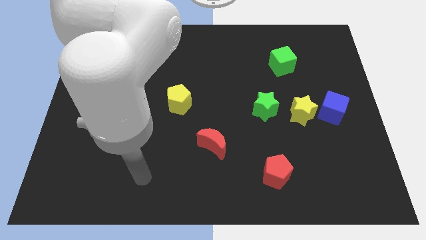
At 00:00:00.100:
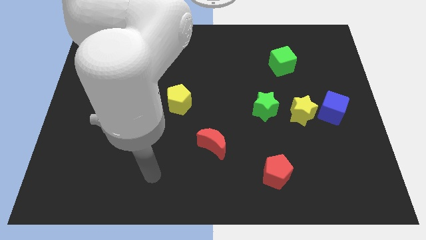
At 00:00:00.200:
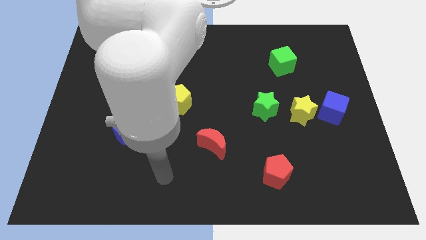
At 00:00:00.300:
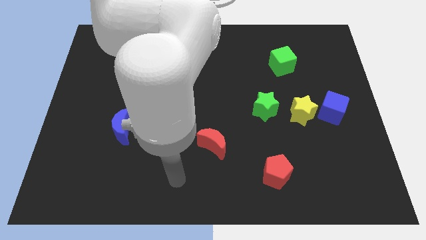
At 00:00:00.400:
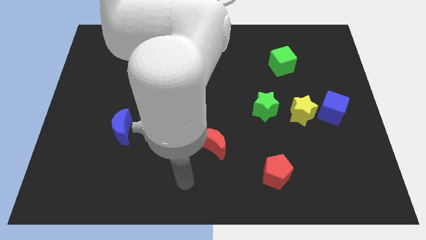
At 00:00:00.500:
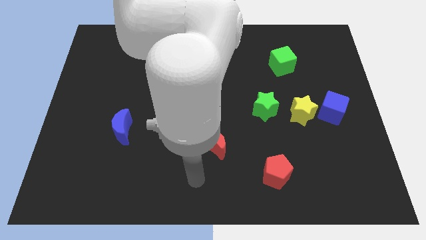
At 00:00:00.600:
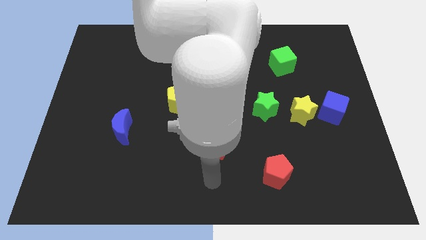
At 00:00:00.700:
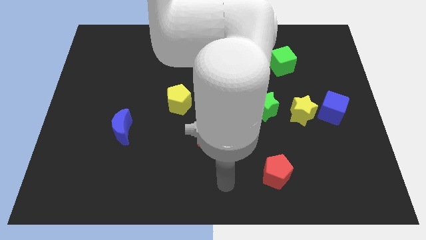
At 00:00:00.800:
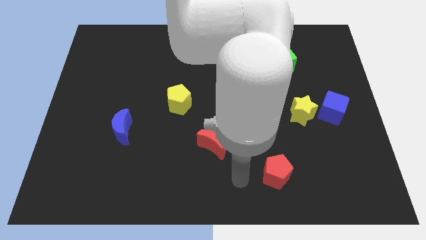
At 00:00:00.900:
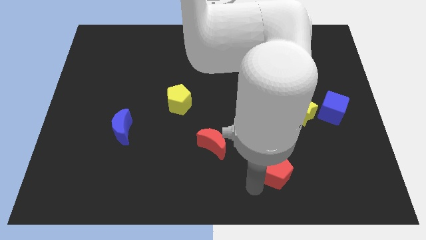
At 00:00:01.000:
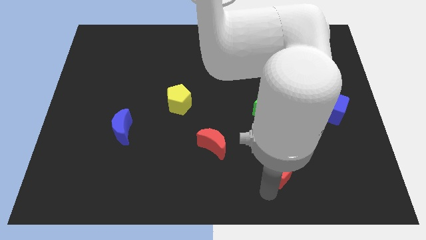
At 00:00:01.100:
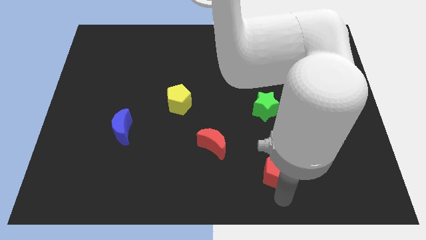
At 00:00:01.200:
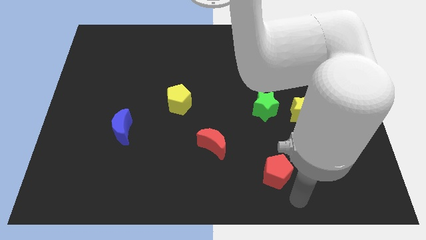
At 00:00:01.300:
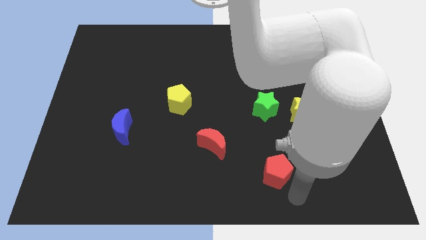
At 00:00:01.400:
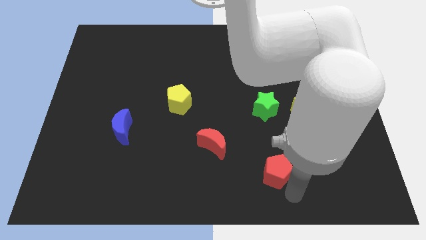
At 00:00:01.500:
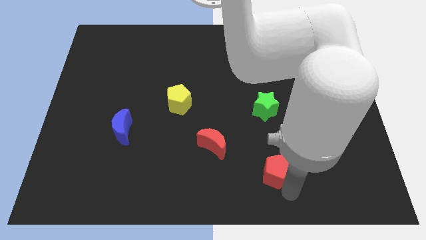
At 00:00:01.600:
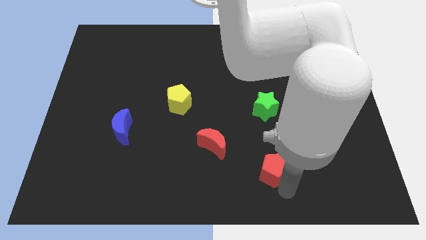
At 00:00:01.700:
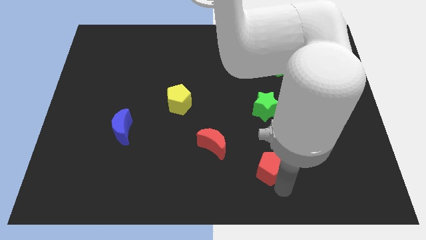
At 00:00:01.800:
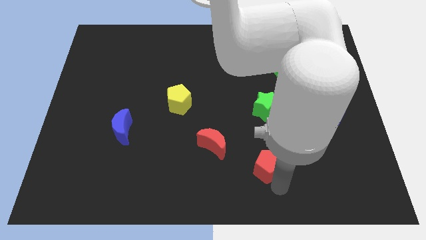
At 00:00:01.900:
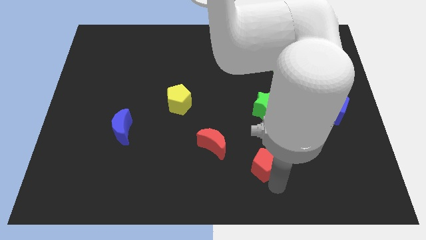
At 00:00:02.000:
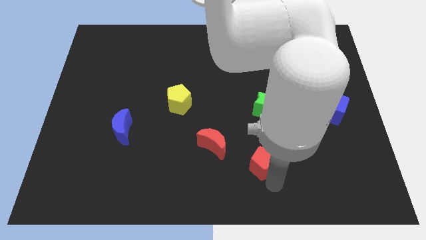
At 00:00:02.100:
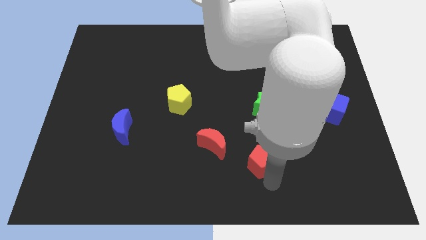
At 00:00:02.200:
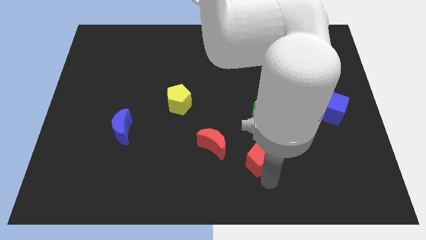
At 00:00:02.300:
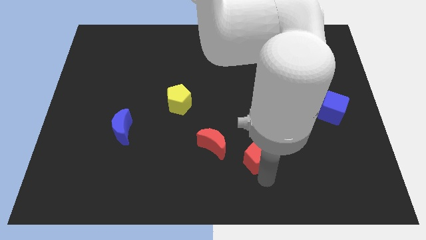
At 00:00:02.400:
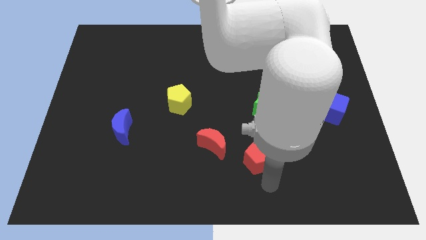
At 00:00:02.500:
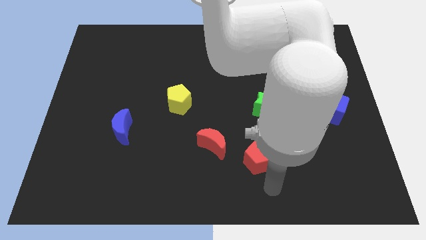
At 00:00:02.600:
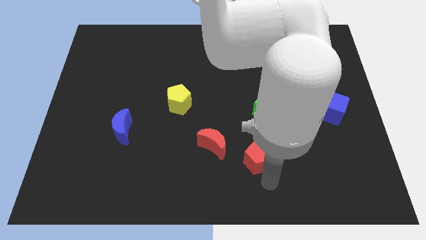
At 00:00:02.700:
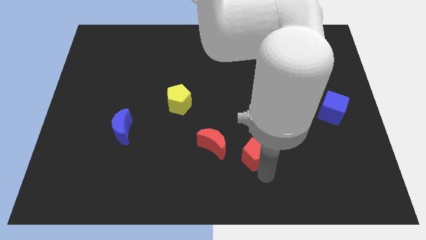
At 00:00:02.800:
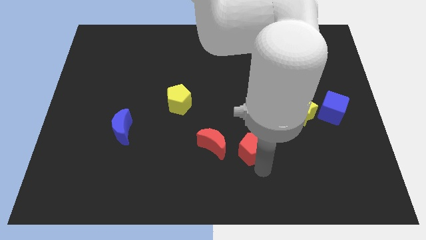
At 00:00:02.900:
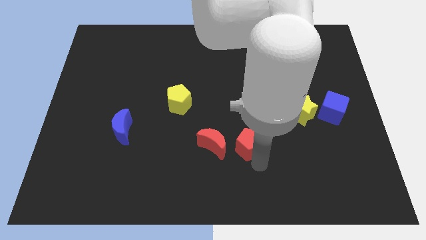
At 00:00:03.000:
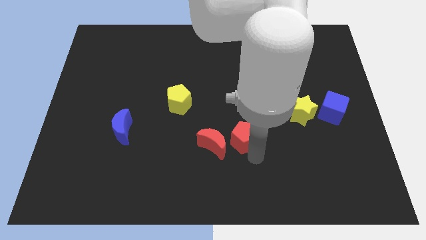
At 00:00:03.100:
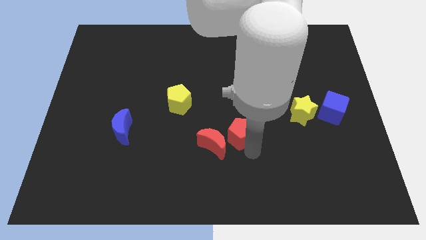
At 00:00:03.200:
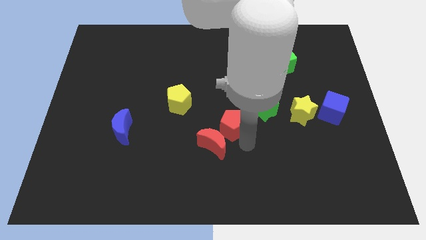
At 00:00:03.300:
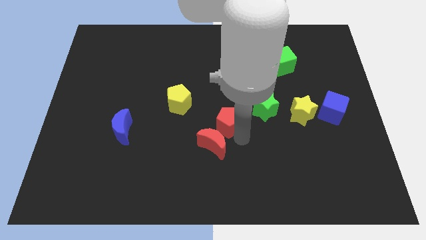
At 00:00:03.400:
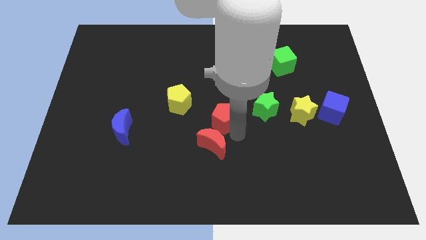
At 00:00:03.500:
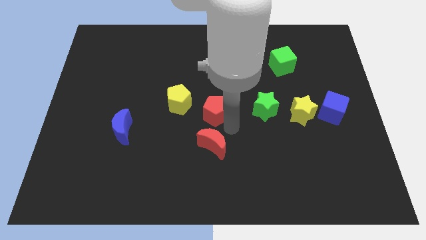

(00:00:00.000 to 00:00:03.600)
push the red pentagon upwards and then left

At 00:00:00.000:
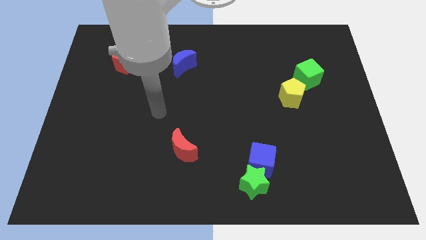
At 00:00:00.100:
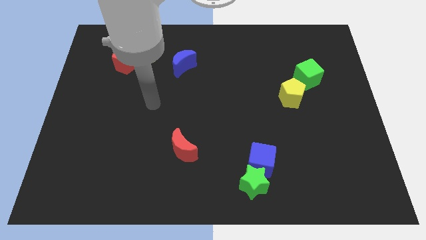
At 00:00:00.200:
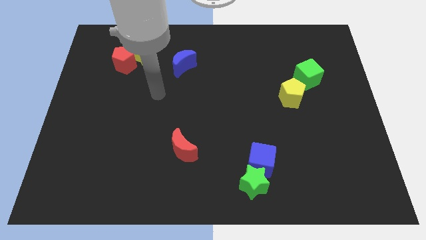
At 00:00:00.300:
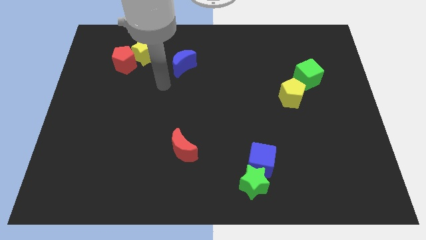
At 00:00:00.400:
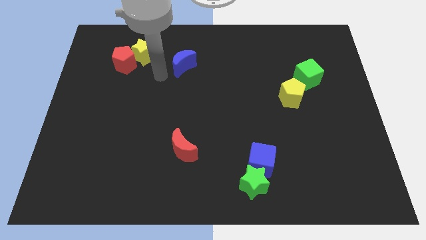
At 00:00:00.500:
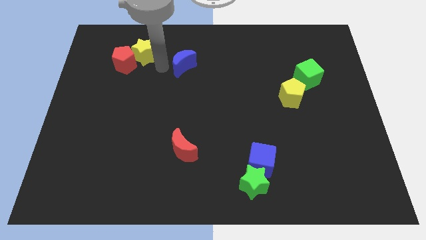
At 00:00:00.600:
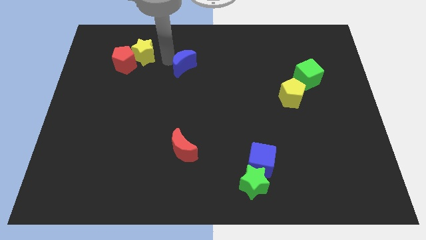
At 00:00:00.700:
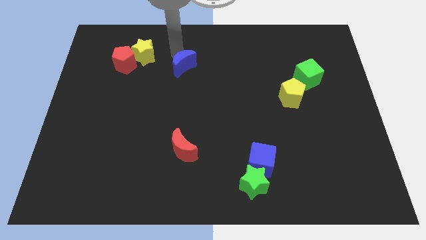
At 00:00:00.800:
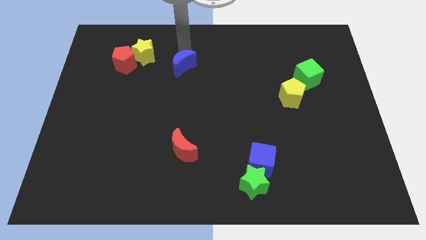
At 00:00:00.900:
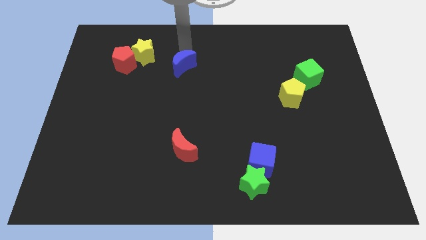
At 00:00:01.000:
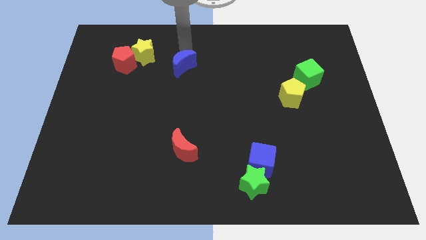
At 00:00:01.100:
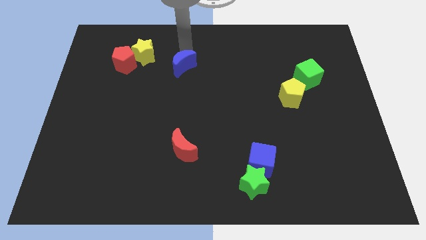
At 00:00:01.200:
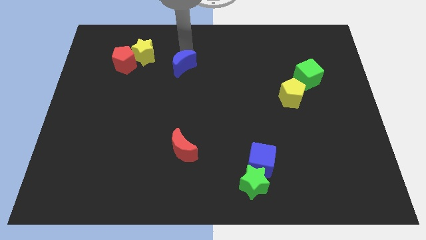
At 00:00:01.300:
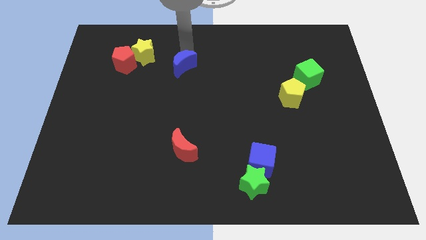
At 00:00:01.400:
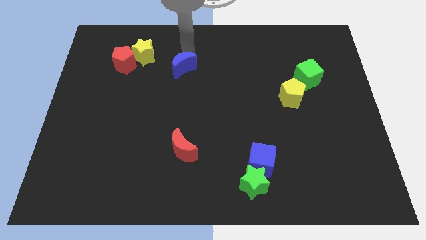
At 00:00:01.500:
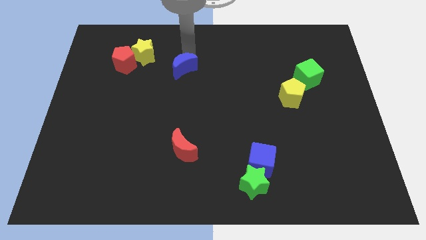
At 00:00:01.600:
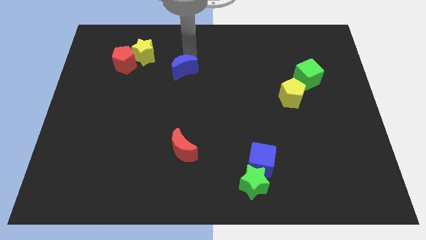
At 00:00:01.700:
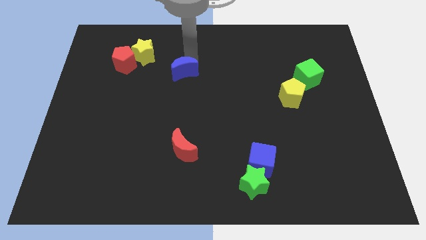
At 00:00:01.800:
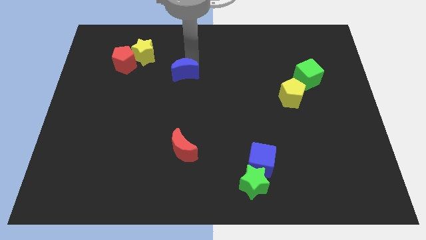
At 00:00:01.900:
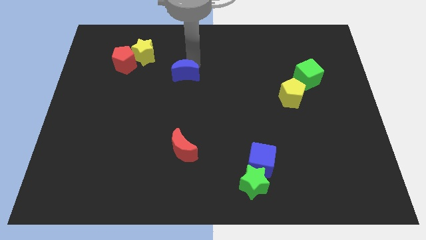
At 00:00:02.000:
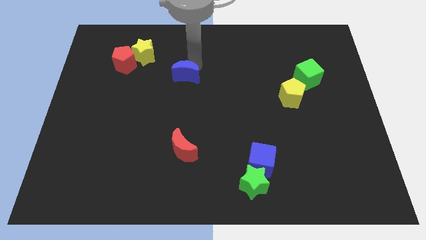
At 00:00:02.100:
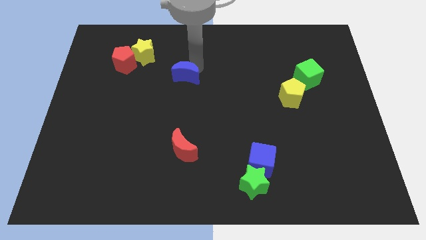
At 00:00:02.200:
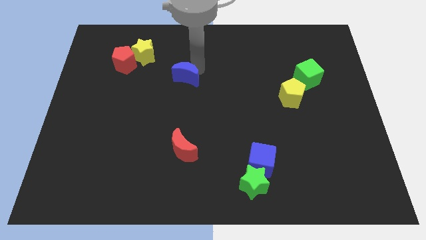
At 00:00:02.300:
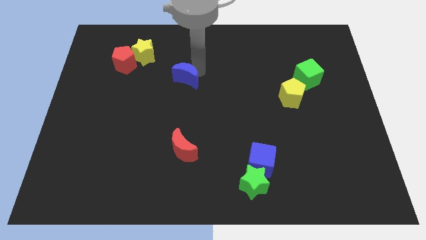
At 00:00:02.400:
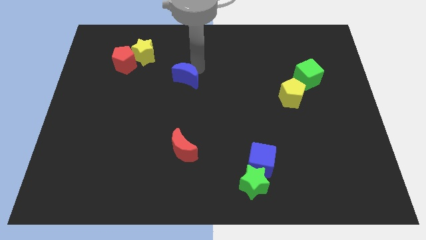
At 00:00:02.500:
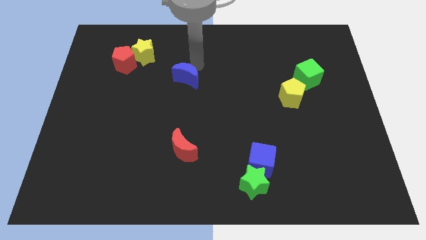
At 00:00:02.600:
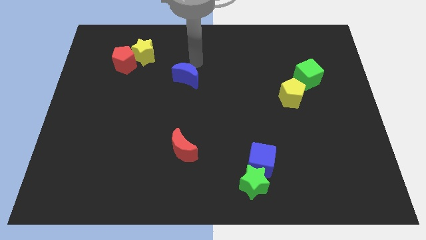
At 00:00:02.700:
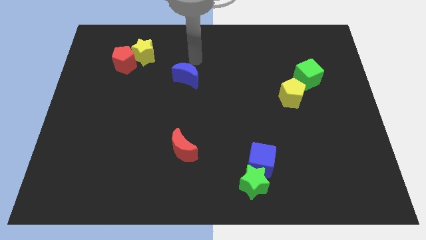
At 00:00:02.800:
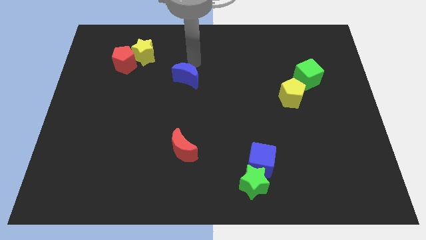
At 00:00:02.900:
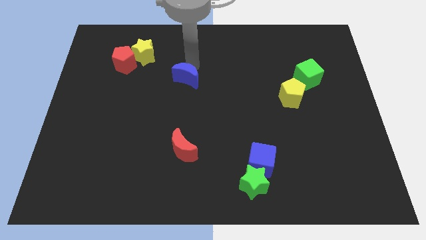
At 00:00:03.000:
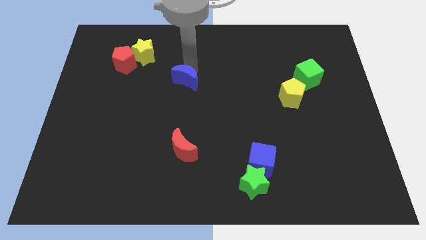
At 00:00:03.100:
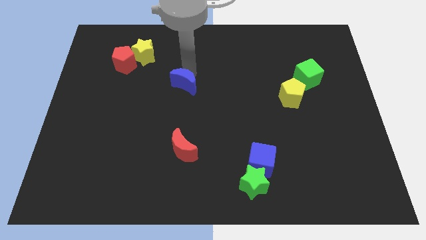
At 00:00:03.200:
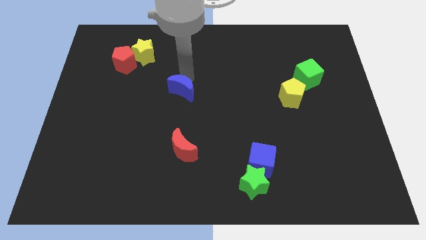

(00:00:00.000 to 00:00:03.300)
slightly move the blue moon downwards

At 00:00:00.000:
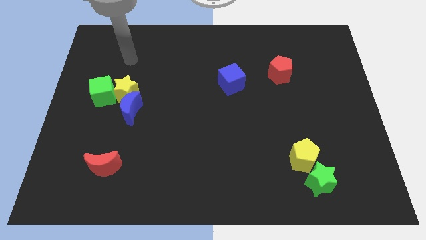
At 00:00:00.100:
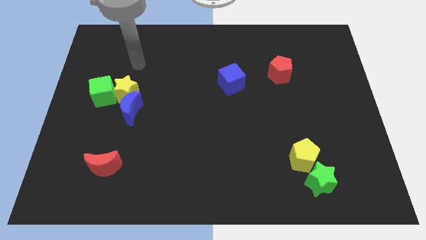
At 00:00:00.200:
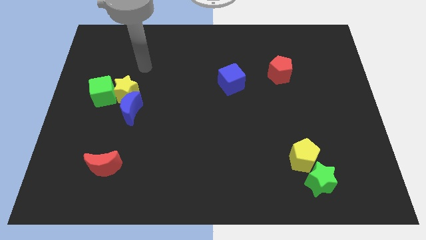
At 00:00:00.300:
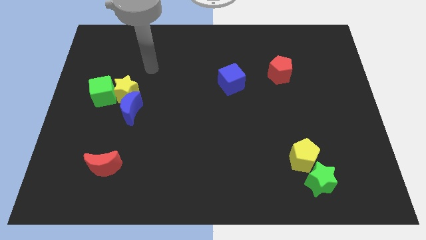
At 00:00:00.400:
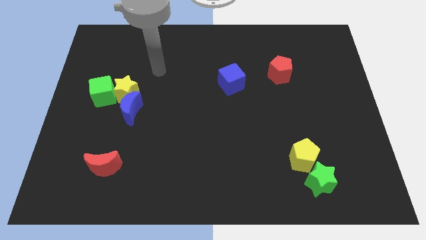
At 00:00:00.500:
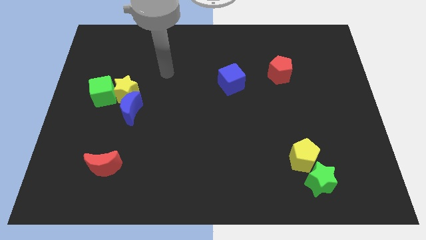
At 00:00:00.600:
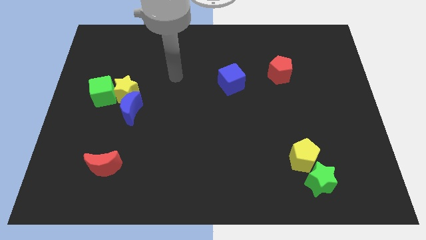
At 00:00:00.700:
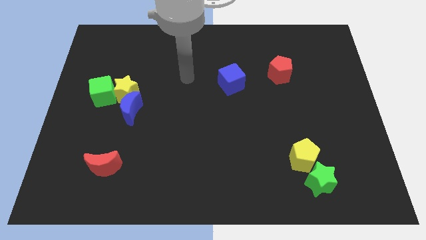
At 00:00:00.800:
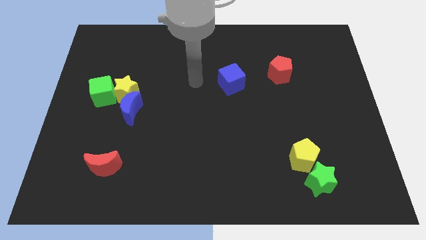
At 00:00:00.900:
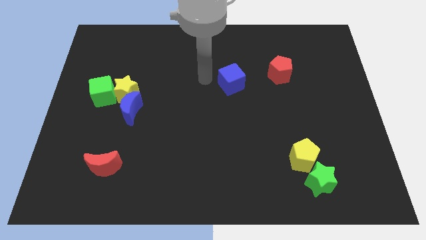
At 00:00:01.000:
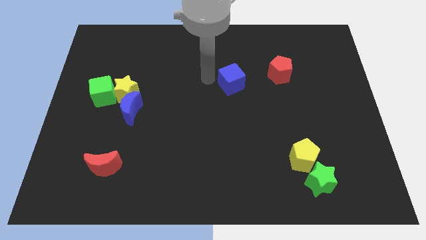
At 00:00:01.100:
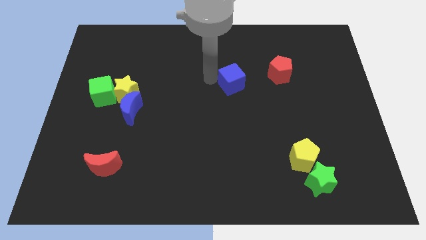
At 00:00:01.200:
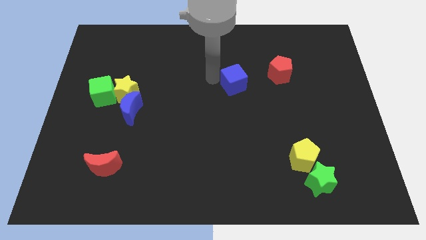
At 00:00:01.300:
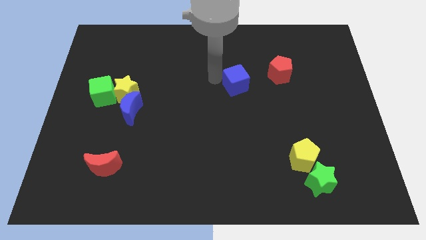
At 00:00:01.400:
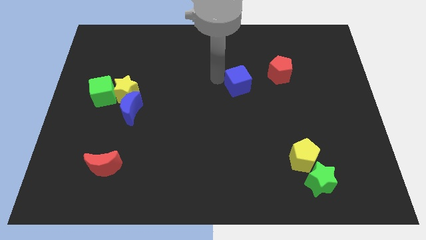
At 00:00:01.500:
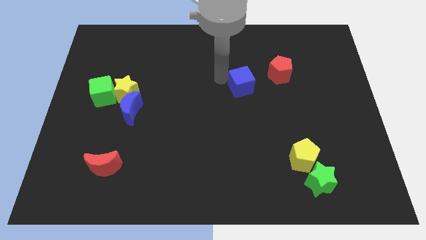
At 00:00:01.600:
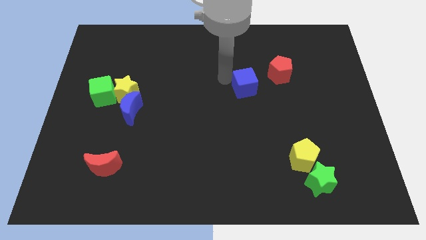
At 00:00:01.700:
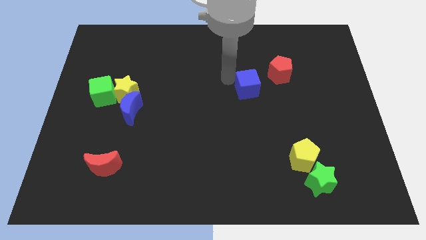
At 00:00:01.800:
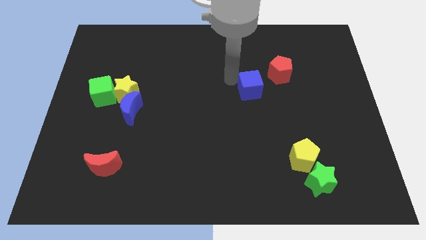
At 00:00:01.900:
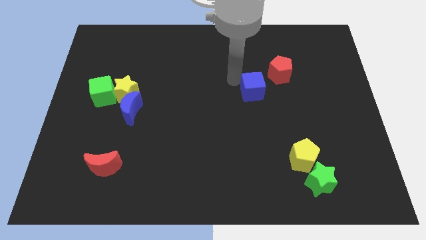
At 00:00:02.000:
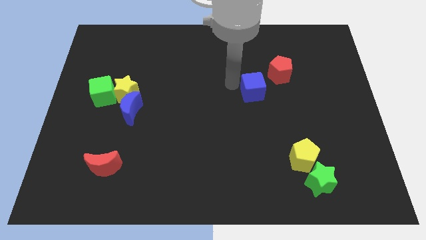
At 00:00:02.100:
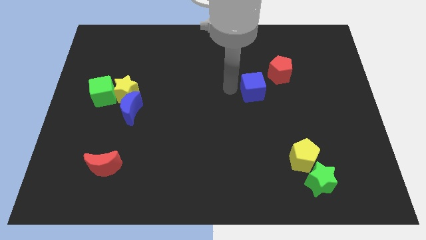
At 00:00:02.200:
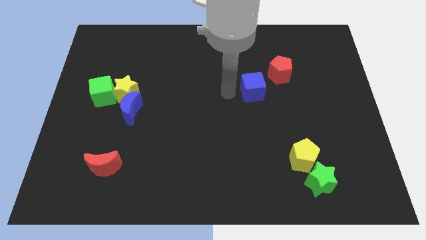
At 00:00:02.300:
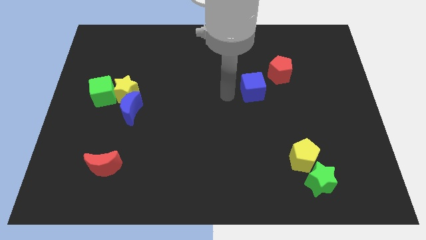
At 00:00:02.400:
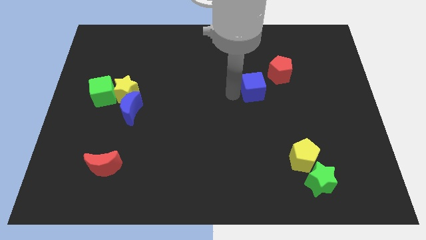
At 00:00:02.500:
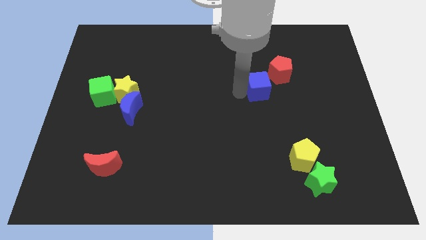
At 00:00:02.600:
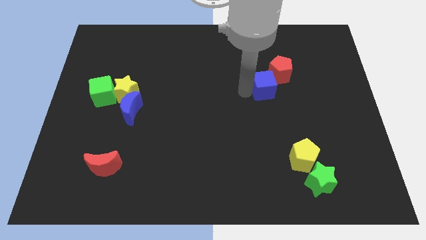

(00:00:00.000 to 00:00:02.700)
slightly move the blue cube right
